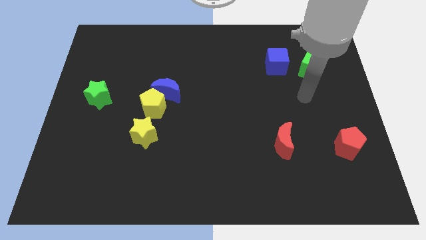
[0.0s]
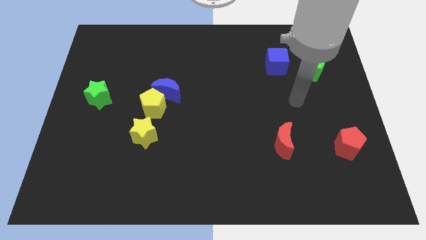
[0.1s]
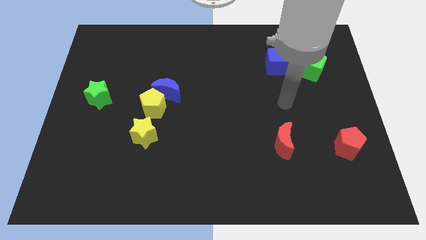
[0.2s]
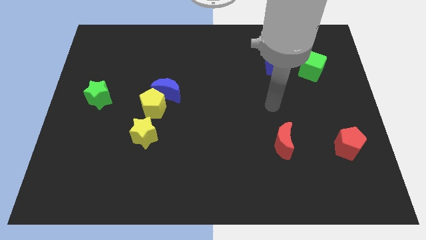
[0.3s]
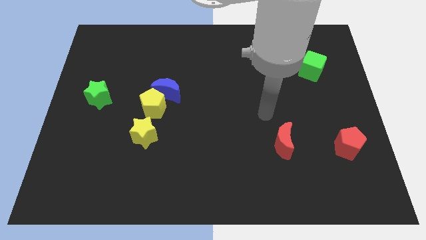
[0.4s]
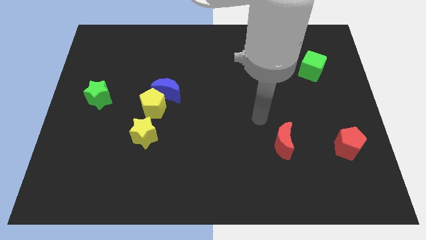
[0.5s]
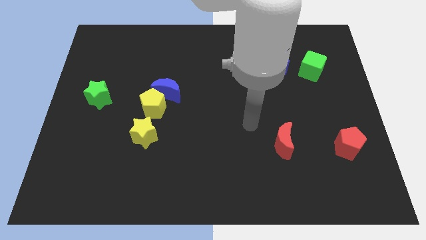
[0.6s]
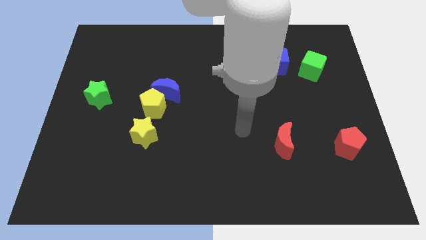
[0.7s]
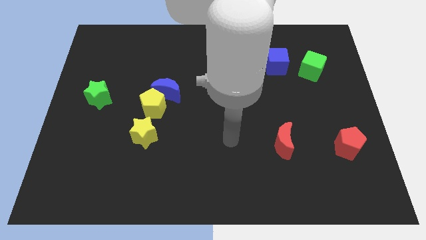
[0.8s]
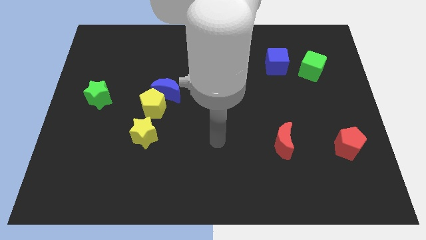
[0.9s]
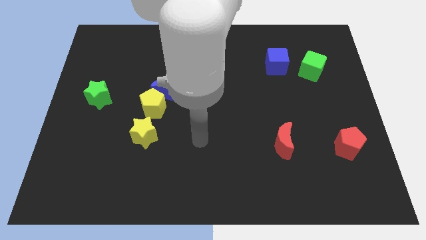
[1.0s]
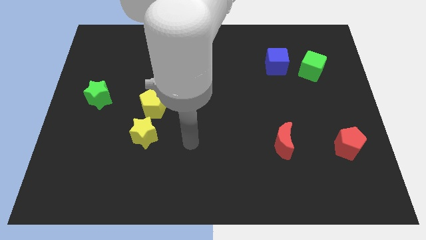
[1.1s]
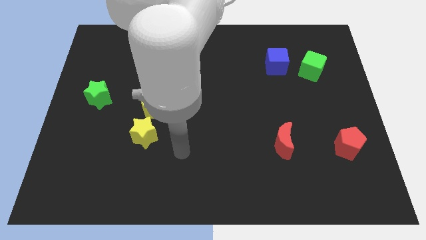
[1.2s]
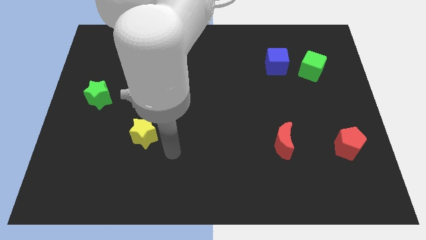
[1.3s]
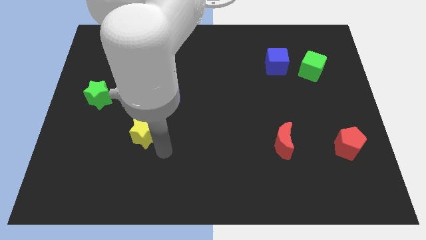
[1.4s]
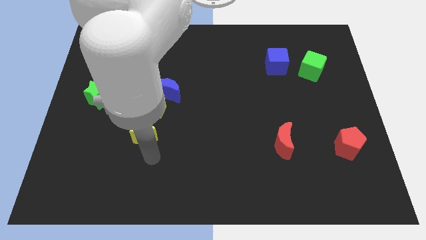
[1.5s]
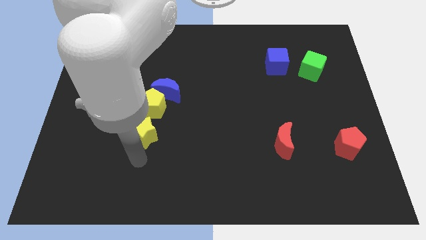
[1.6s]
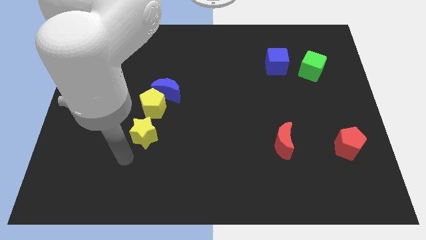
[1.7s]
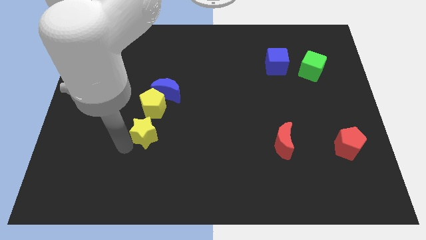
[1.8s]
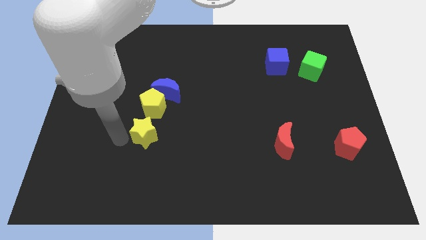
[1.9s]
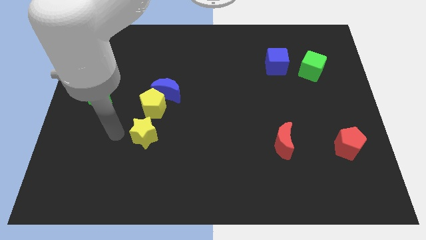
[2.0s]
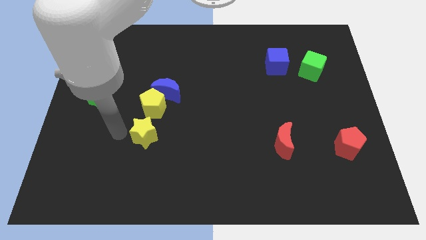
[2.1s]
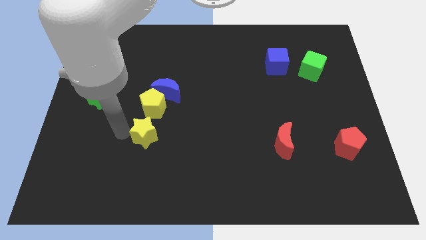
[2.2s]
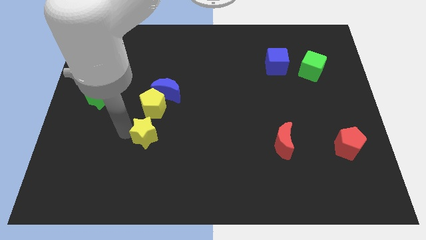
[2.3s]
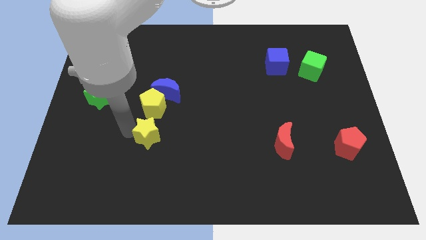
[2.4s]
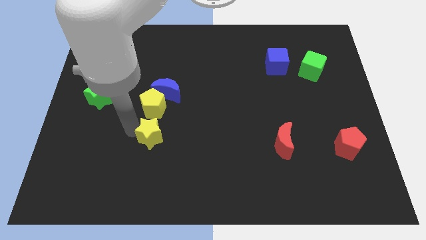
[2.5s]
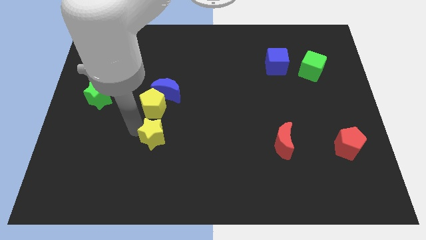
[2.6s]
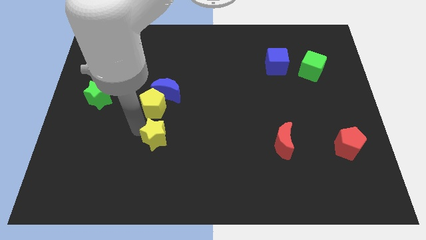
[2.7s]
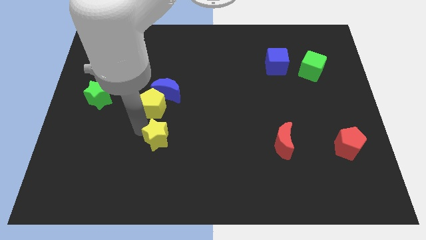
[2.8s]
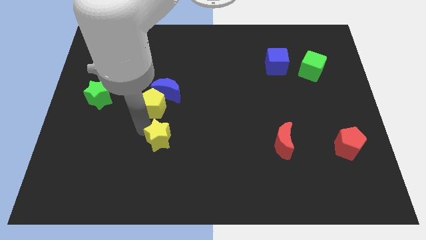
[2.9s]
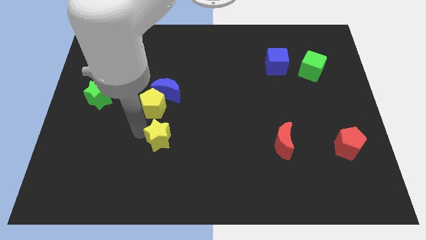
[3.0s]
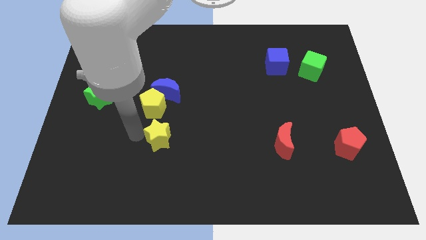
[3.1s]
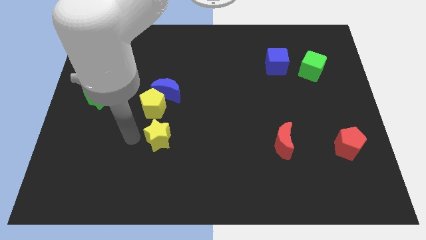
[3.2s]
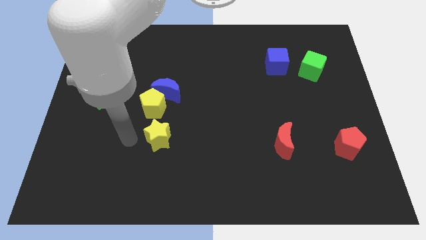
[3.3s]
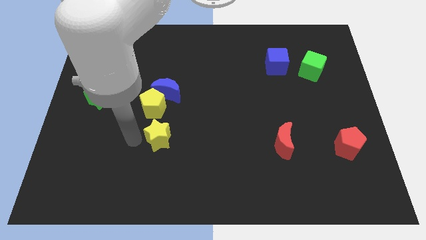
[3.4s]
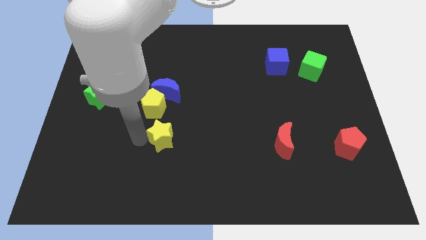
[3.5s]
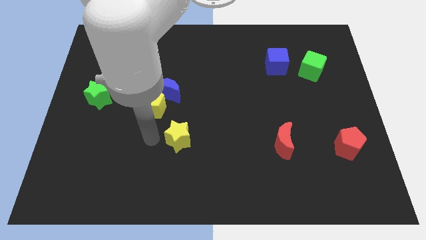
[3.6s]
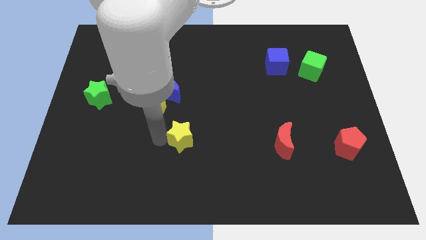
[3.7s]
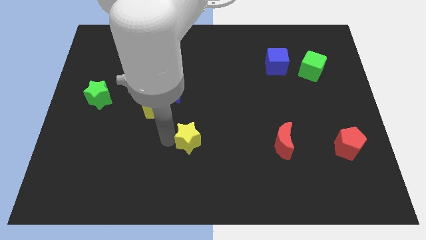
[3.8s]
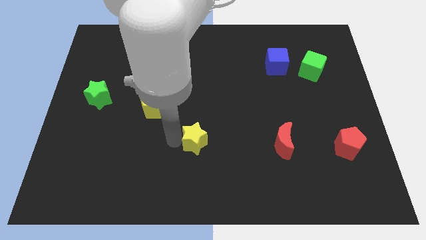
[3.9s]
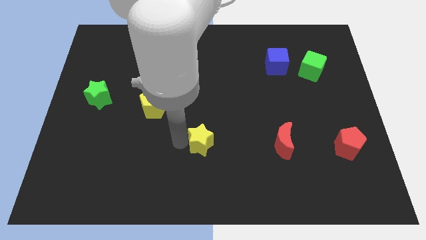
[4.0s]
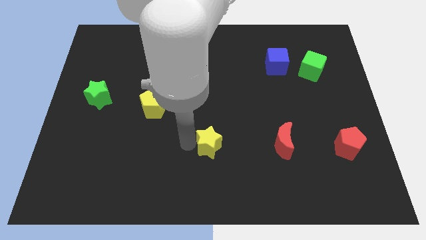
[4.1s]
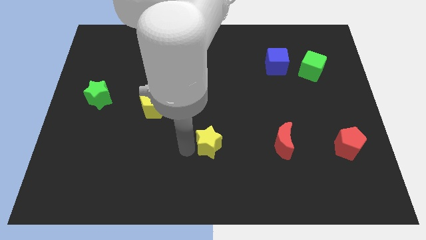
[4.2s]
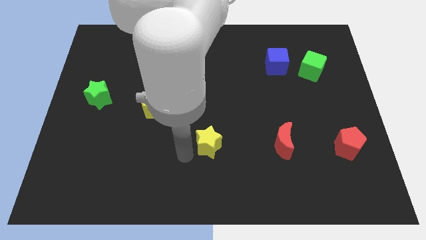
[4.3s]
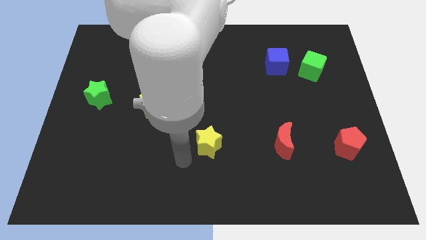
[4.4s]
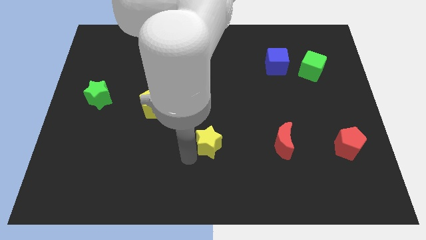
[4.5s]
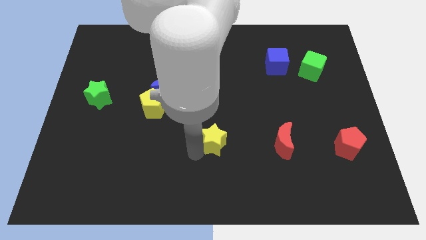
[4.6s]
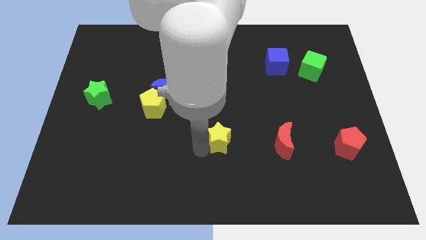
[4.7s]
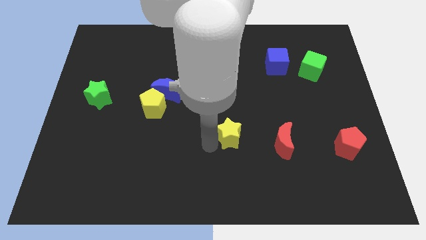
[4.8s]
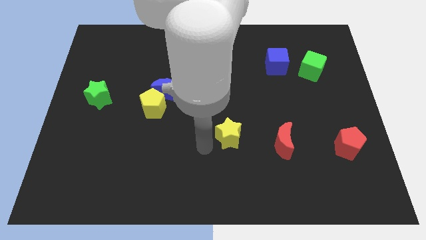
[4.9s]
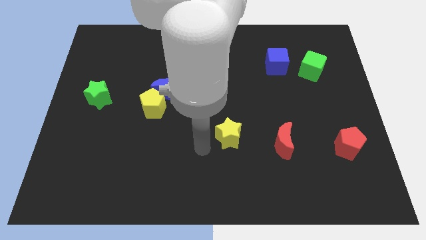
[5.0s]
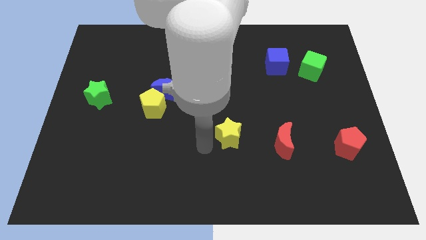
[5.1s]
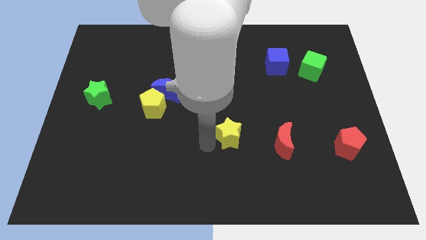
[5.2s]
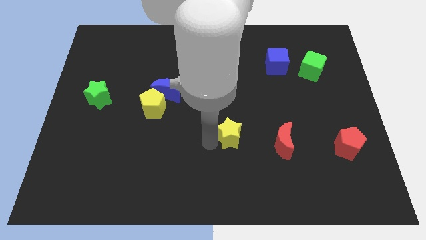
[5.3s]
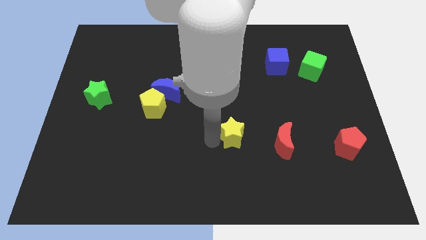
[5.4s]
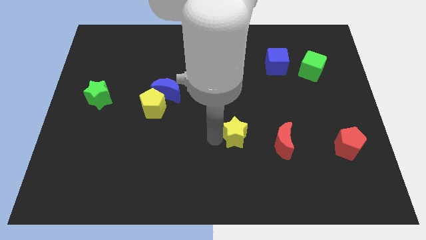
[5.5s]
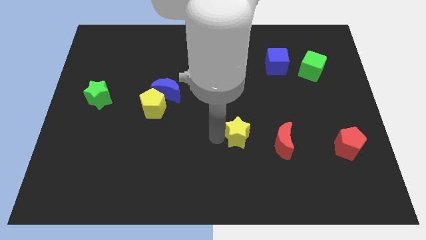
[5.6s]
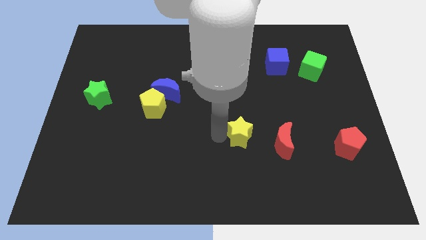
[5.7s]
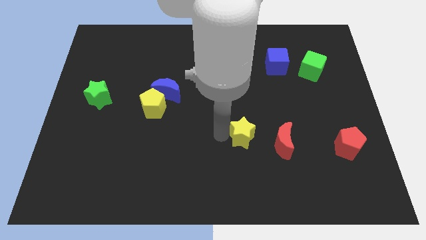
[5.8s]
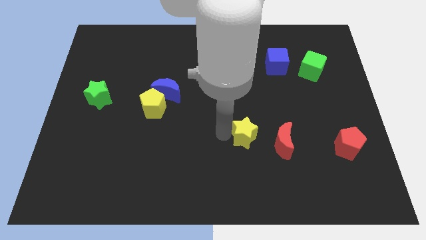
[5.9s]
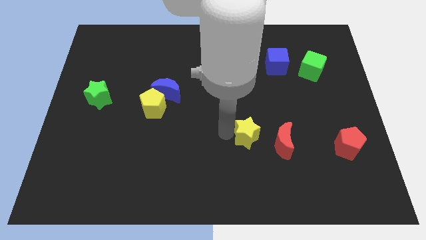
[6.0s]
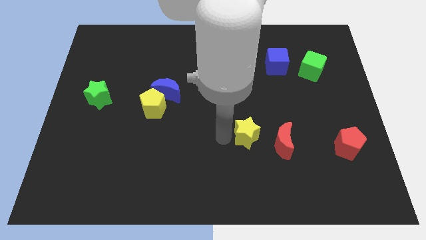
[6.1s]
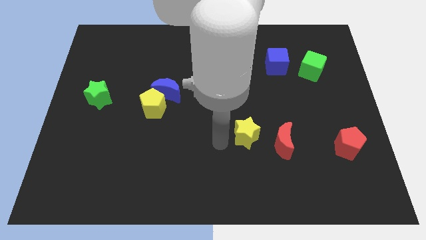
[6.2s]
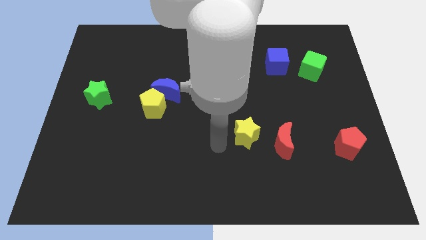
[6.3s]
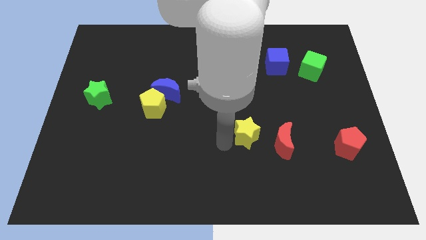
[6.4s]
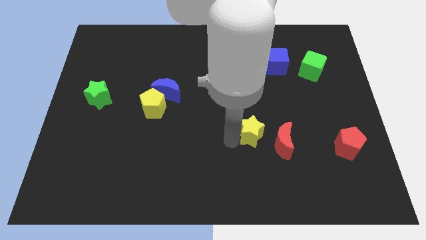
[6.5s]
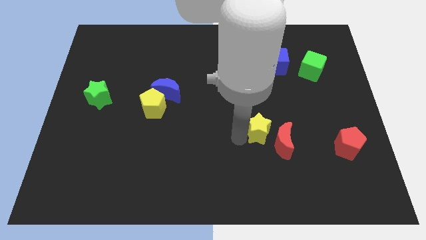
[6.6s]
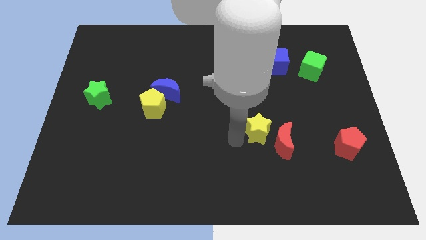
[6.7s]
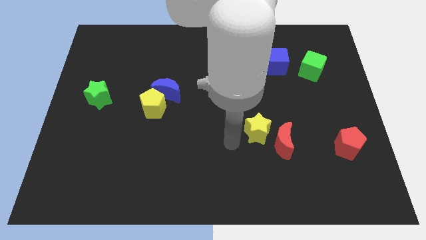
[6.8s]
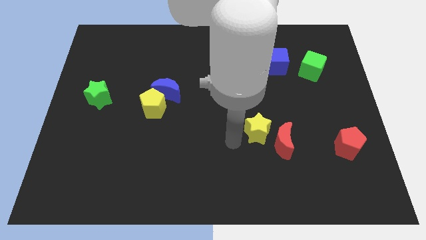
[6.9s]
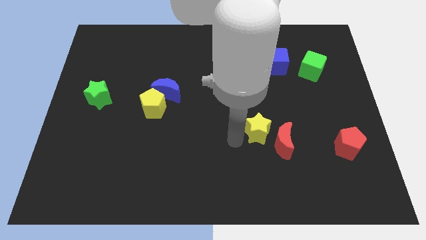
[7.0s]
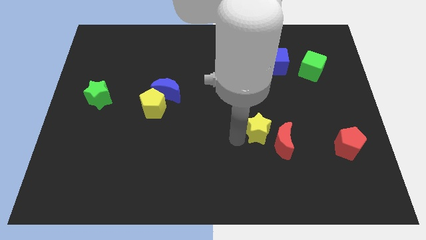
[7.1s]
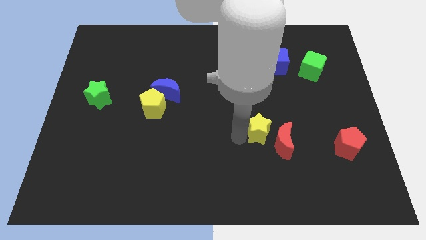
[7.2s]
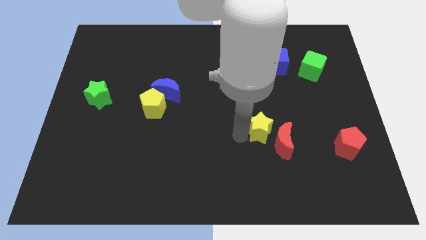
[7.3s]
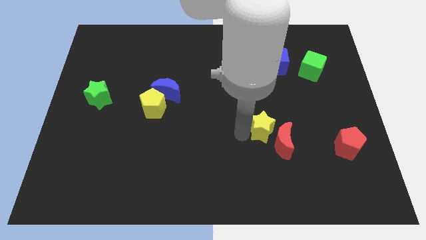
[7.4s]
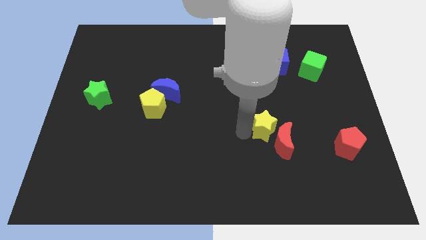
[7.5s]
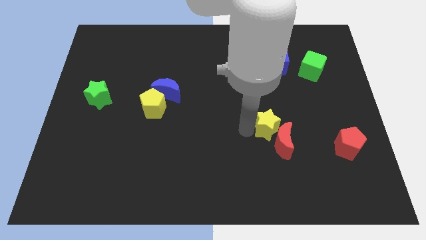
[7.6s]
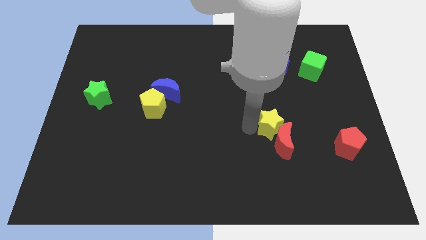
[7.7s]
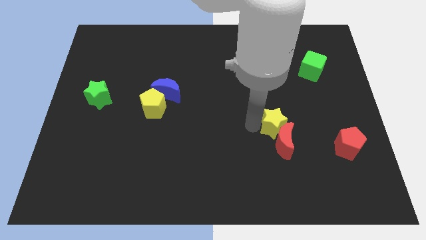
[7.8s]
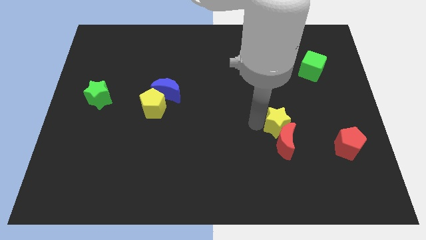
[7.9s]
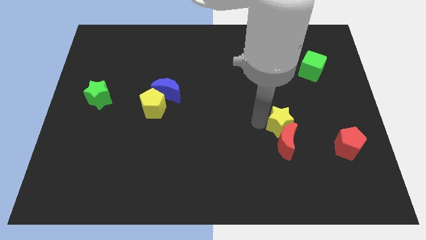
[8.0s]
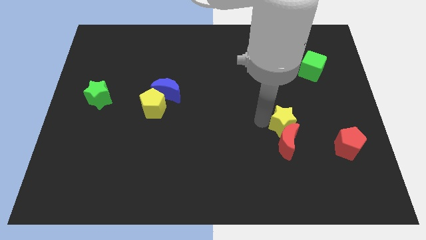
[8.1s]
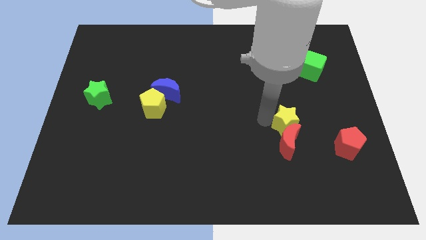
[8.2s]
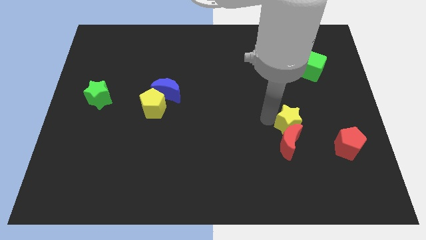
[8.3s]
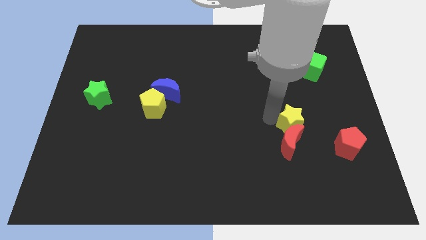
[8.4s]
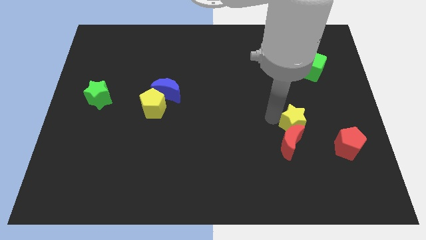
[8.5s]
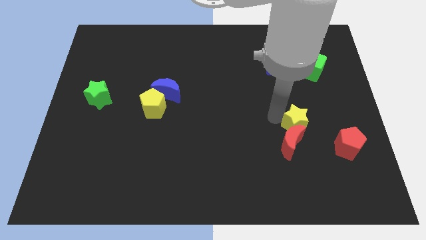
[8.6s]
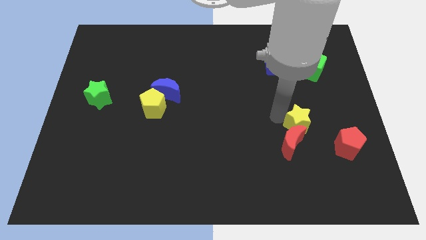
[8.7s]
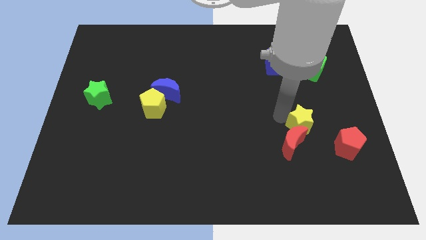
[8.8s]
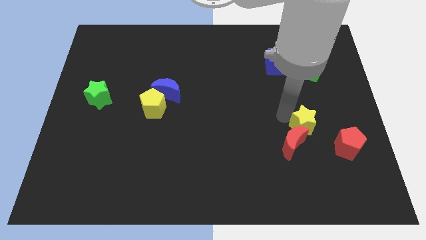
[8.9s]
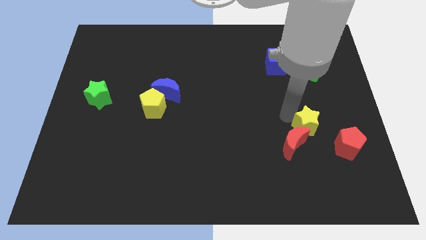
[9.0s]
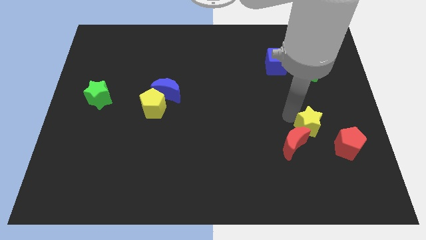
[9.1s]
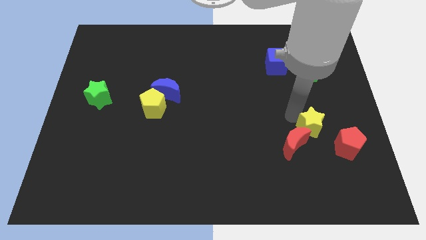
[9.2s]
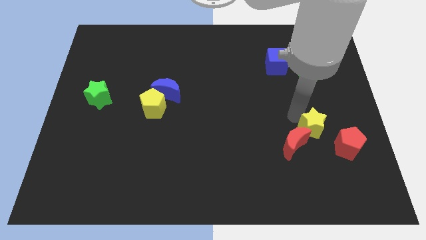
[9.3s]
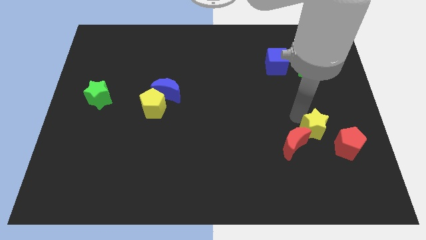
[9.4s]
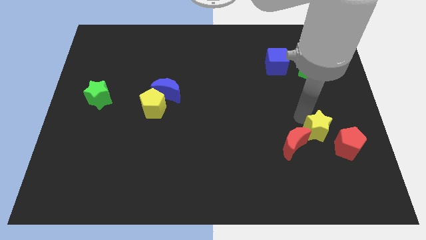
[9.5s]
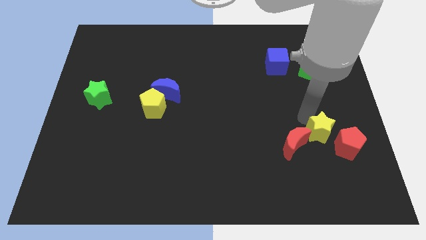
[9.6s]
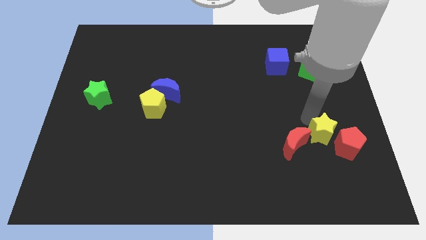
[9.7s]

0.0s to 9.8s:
move the yellow star close to the red pentagon
